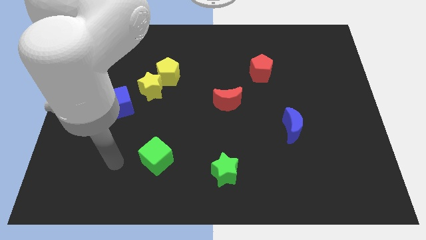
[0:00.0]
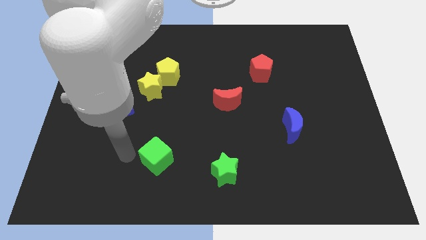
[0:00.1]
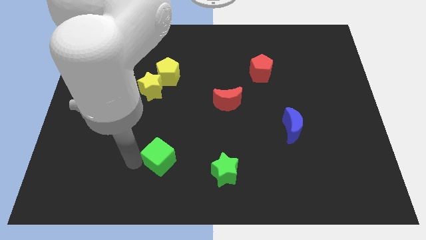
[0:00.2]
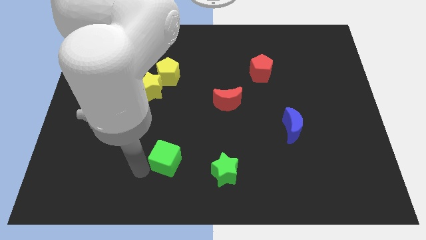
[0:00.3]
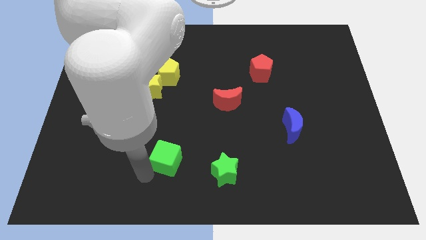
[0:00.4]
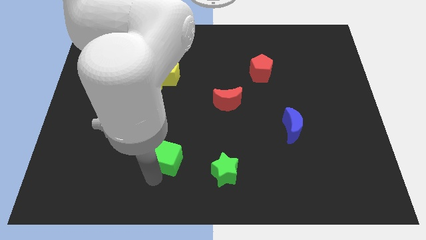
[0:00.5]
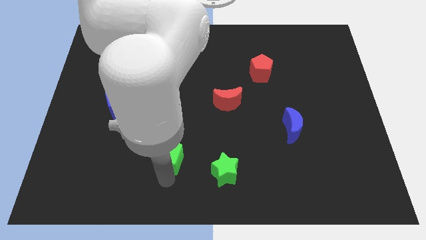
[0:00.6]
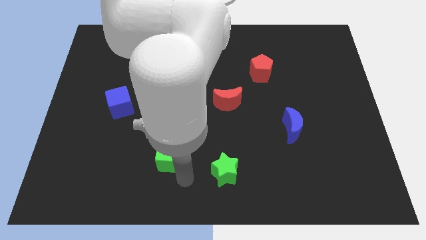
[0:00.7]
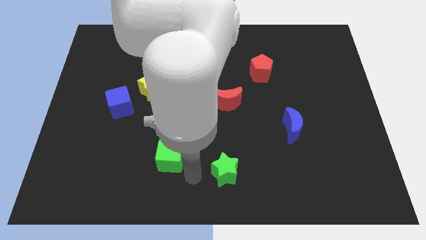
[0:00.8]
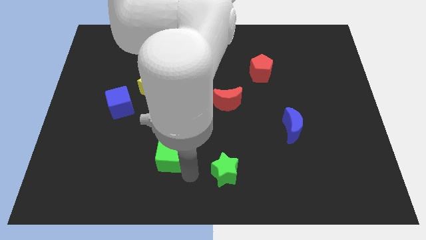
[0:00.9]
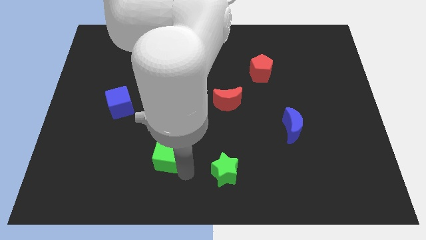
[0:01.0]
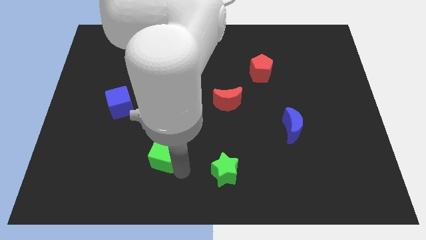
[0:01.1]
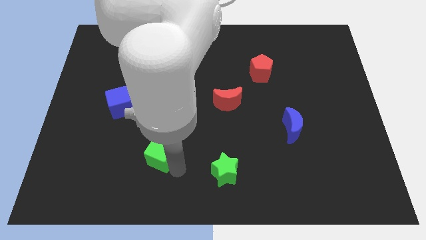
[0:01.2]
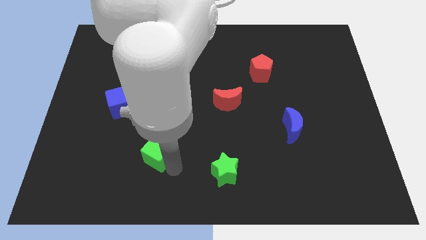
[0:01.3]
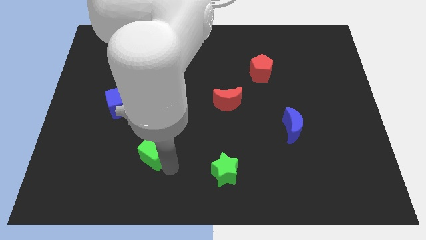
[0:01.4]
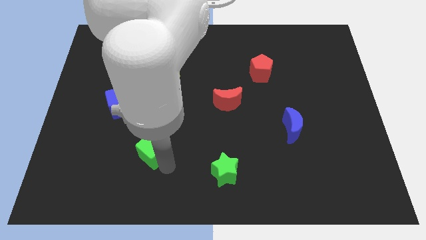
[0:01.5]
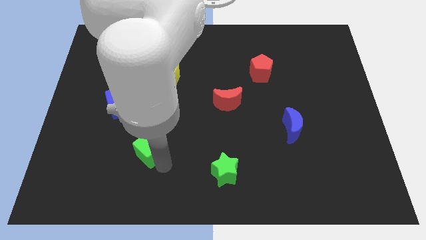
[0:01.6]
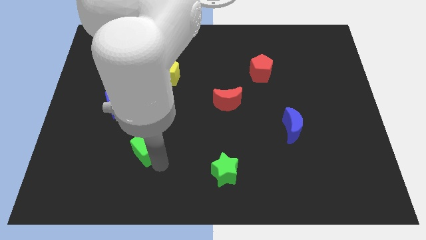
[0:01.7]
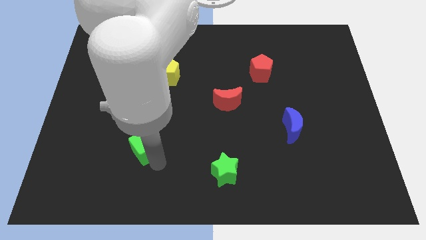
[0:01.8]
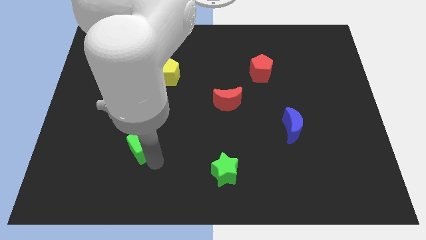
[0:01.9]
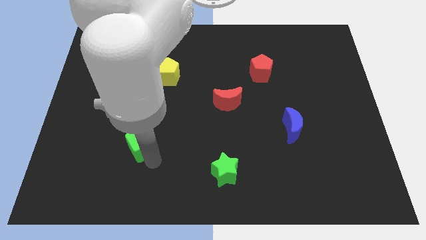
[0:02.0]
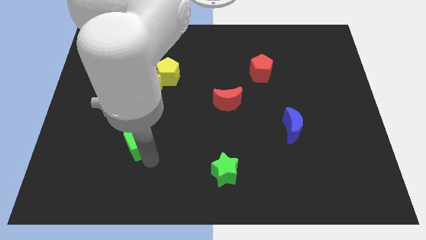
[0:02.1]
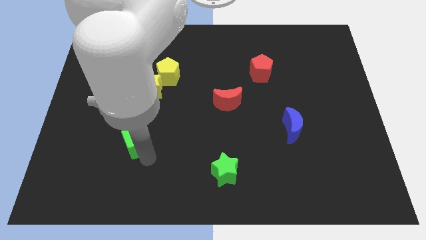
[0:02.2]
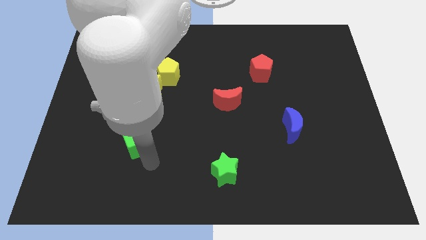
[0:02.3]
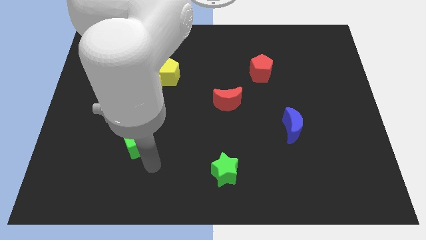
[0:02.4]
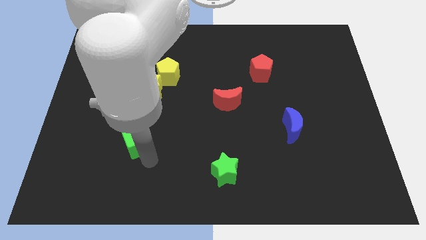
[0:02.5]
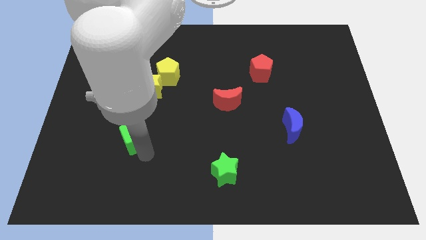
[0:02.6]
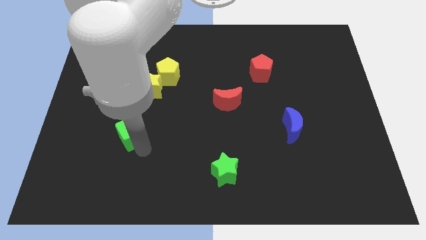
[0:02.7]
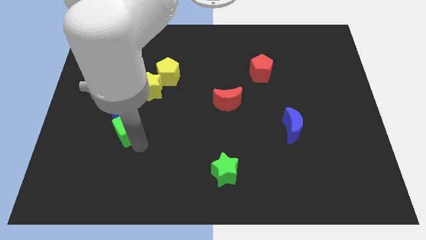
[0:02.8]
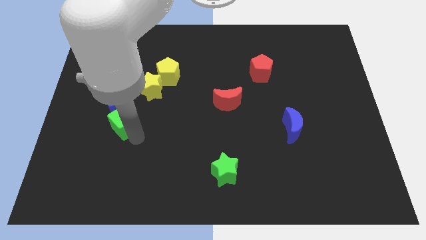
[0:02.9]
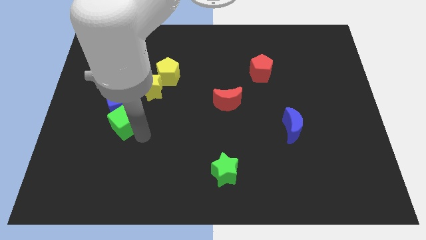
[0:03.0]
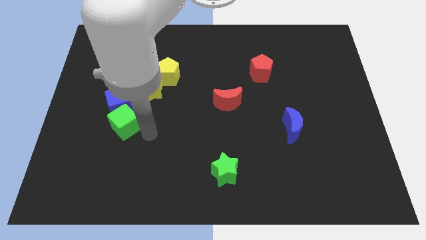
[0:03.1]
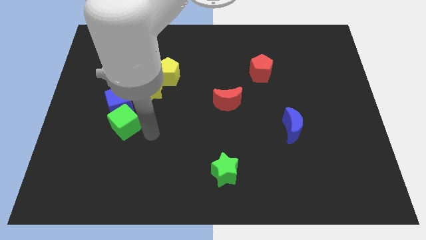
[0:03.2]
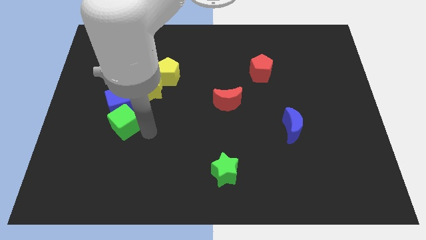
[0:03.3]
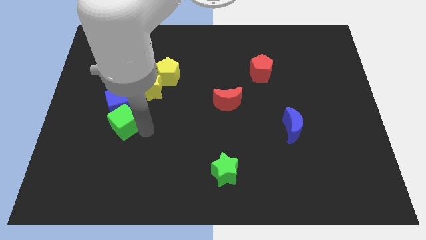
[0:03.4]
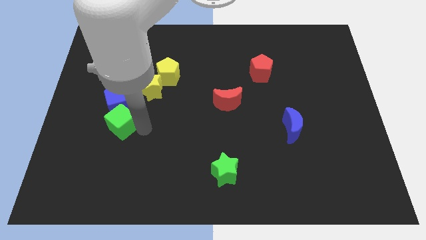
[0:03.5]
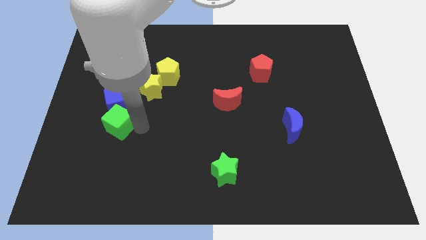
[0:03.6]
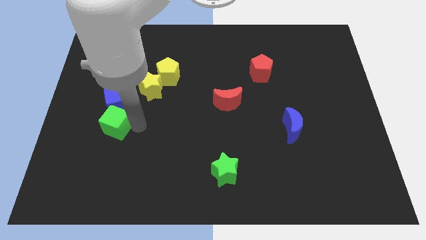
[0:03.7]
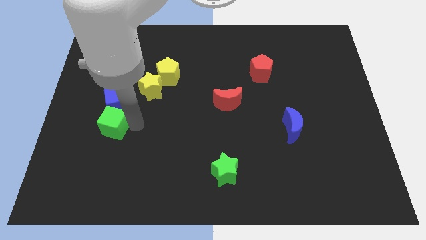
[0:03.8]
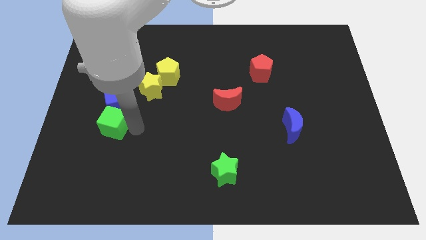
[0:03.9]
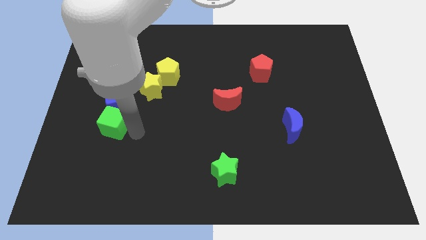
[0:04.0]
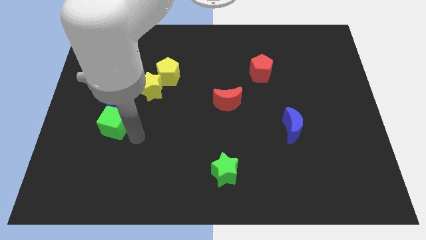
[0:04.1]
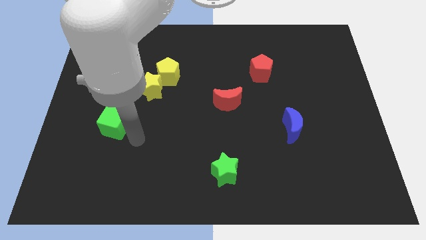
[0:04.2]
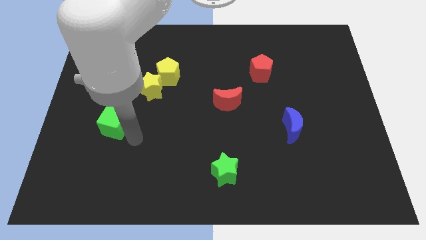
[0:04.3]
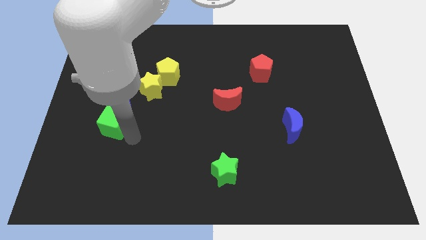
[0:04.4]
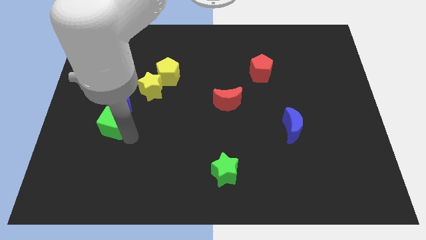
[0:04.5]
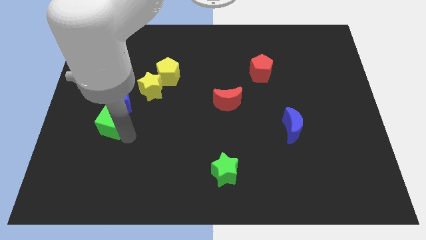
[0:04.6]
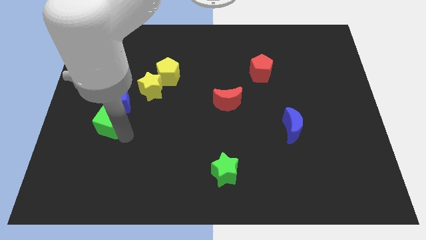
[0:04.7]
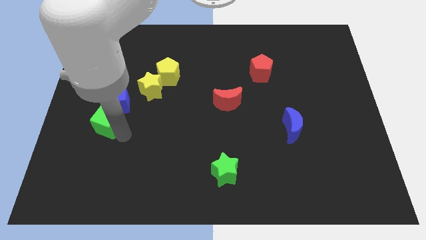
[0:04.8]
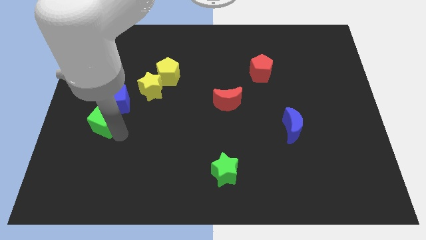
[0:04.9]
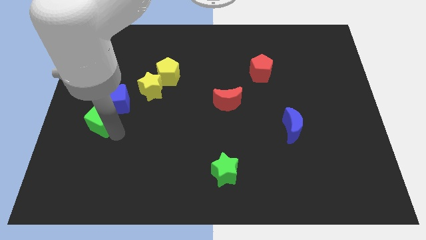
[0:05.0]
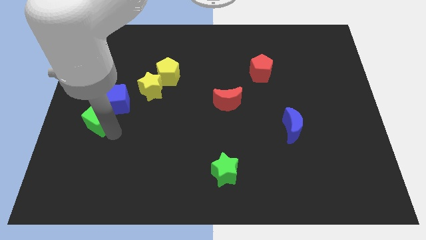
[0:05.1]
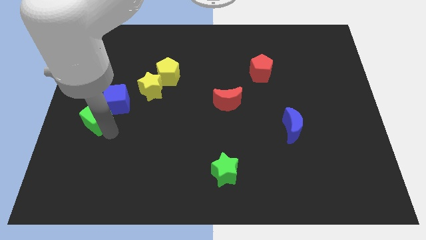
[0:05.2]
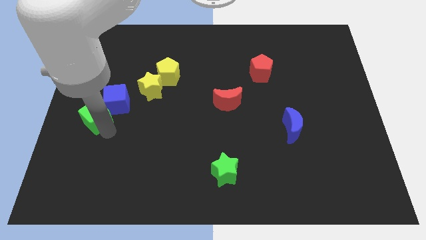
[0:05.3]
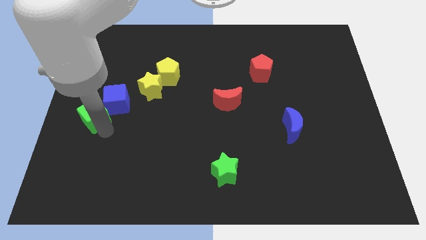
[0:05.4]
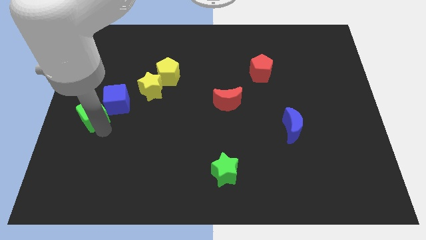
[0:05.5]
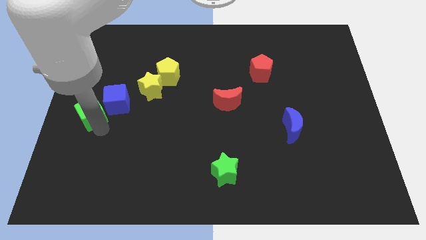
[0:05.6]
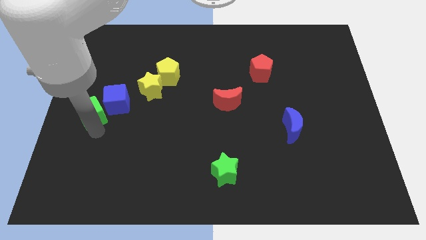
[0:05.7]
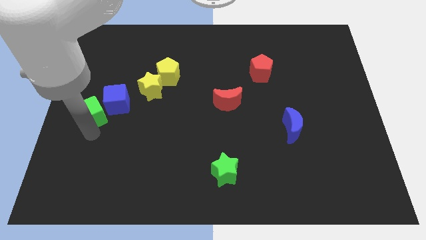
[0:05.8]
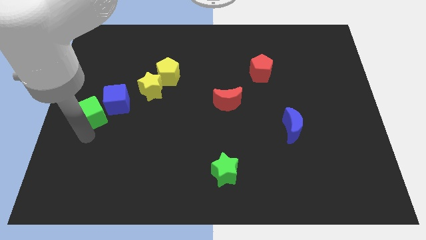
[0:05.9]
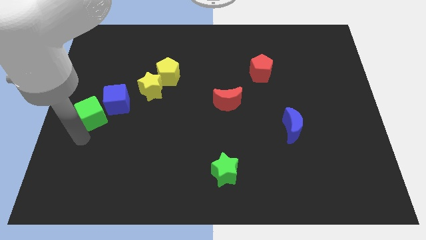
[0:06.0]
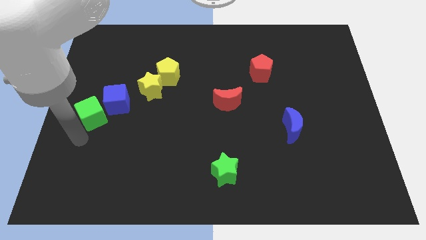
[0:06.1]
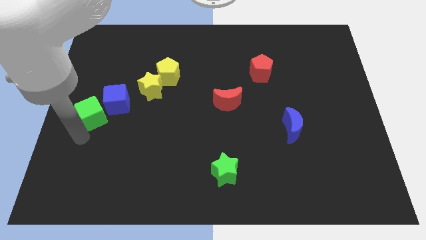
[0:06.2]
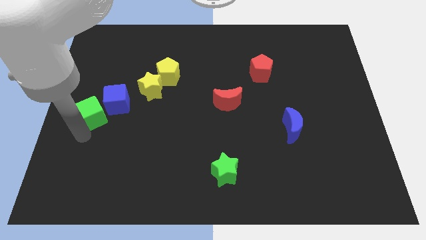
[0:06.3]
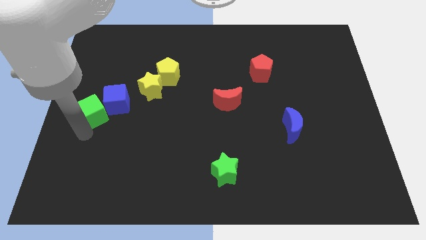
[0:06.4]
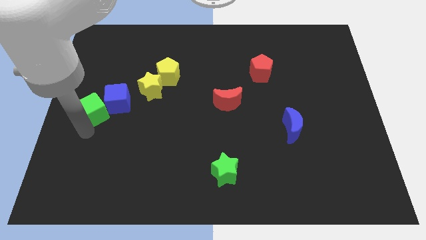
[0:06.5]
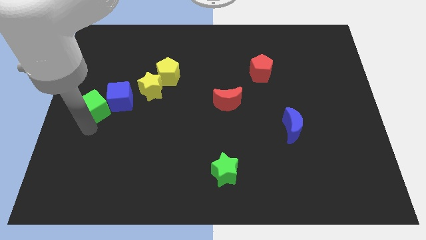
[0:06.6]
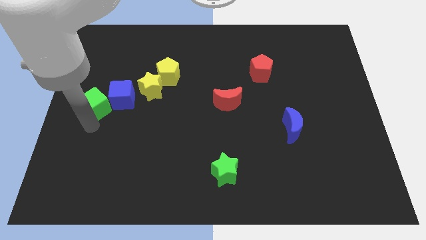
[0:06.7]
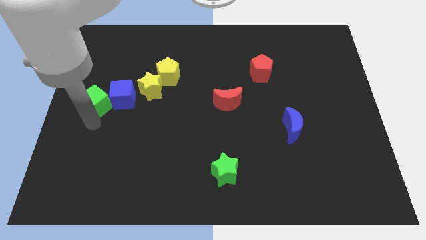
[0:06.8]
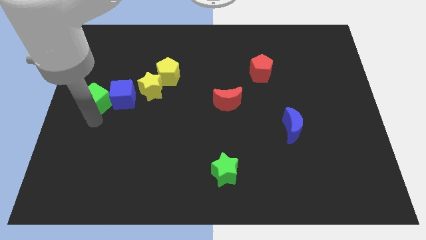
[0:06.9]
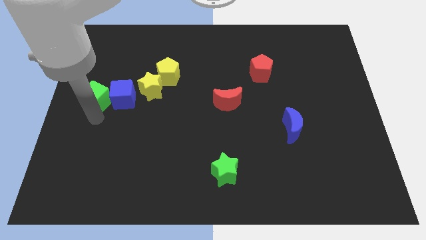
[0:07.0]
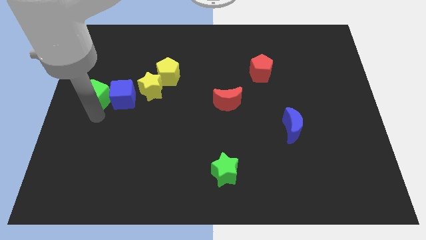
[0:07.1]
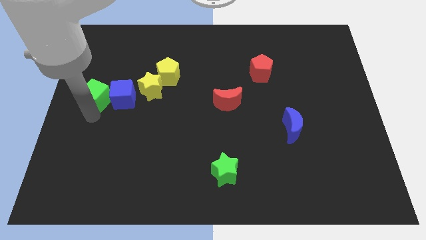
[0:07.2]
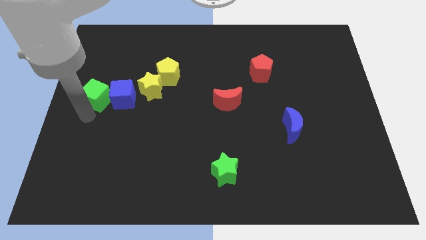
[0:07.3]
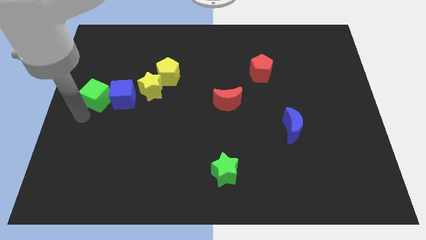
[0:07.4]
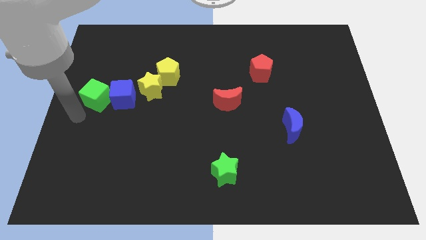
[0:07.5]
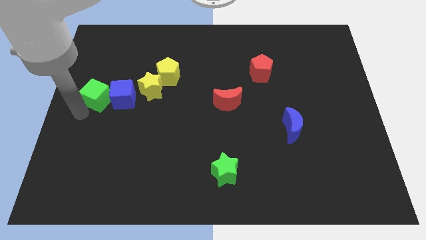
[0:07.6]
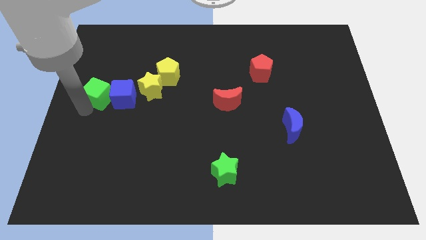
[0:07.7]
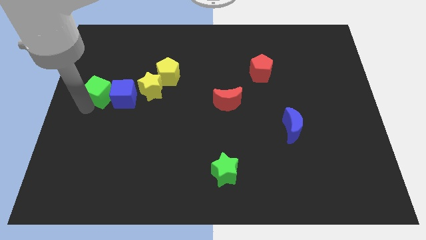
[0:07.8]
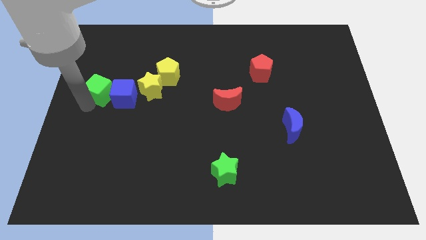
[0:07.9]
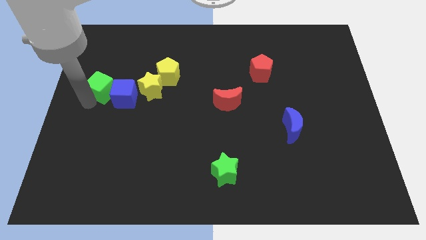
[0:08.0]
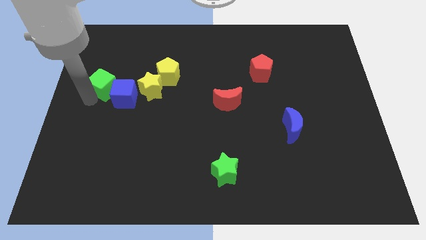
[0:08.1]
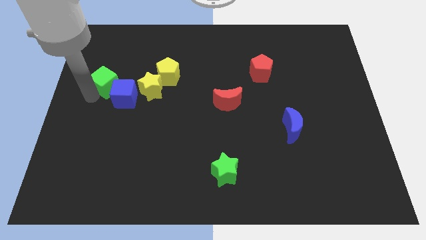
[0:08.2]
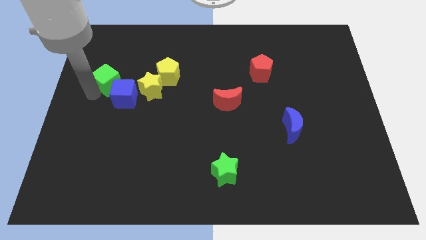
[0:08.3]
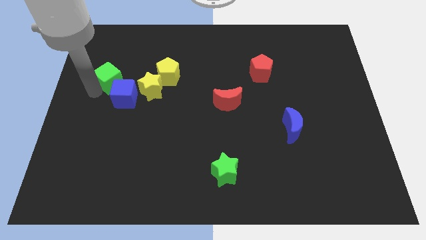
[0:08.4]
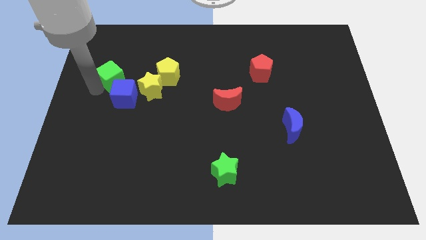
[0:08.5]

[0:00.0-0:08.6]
put the green cube to the top left side of the yellow star
